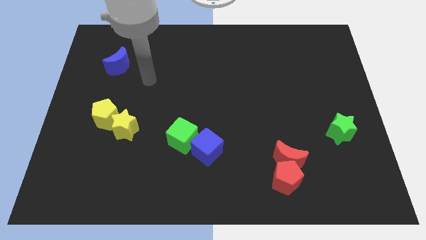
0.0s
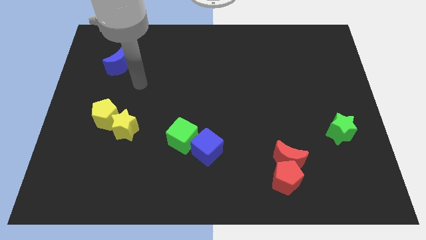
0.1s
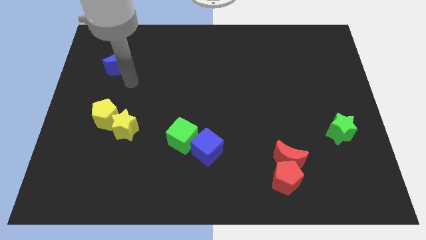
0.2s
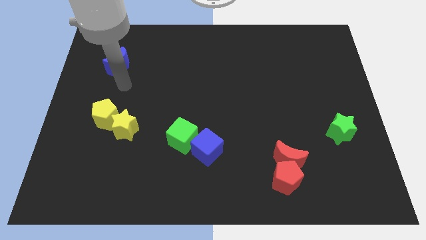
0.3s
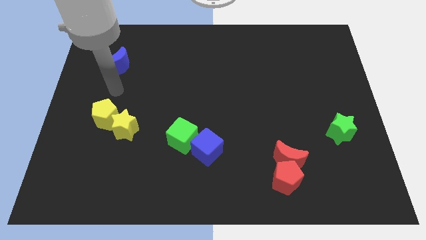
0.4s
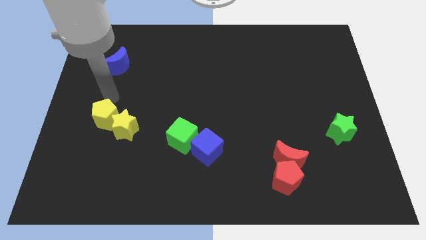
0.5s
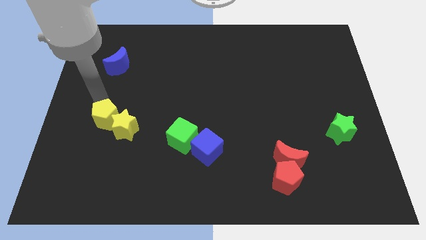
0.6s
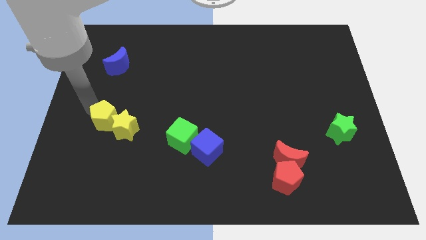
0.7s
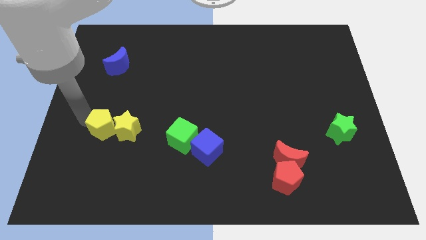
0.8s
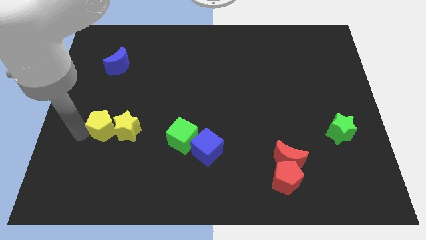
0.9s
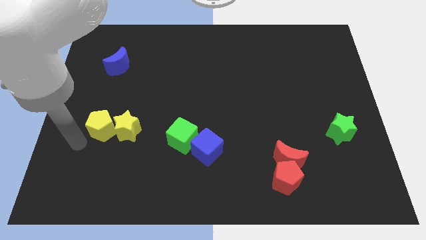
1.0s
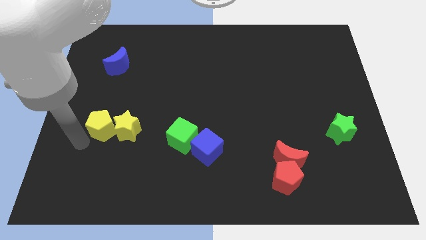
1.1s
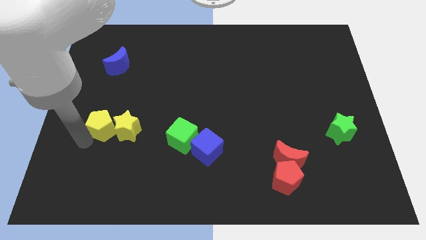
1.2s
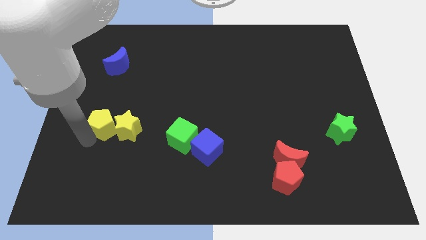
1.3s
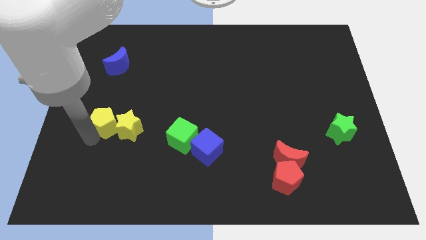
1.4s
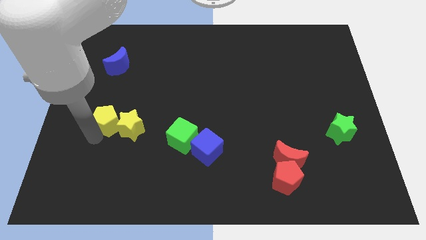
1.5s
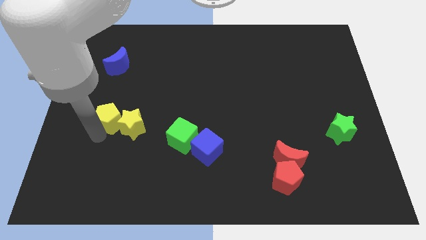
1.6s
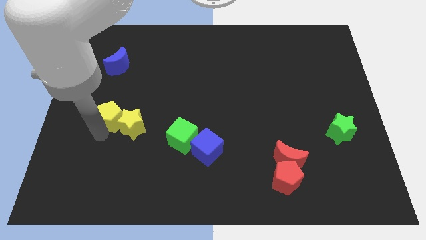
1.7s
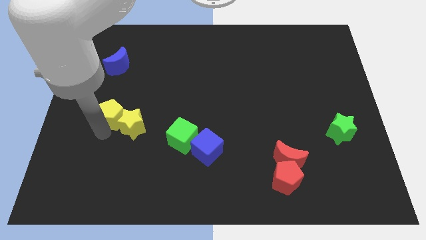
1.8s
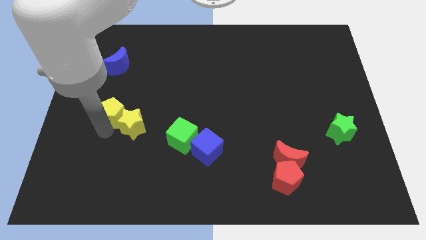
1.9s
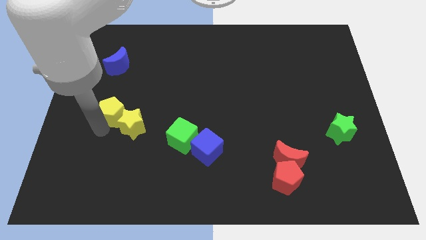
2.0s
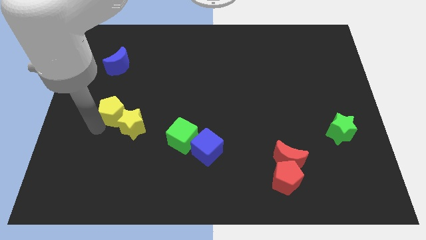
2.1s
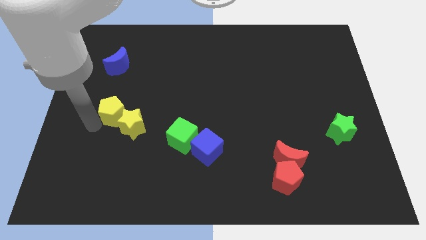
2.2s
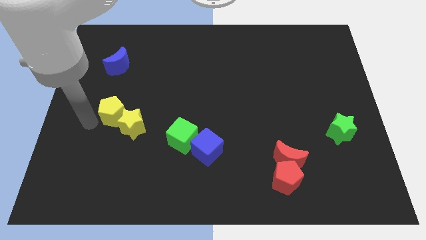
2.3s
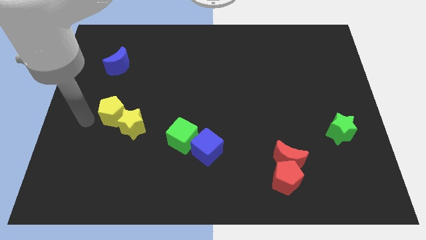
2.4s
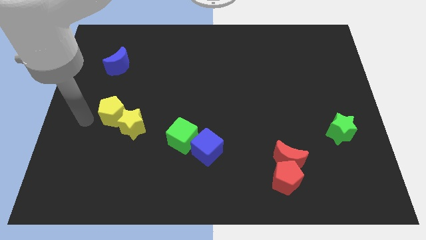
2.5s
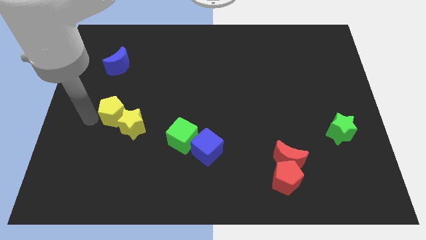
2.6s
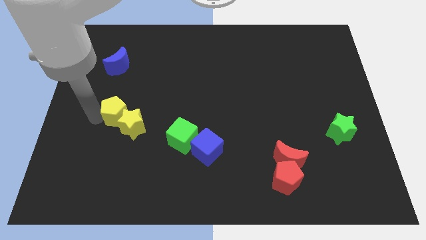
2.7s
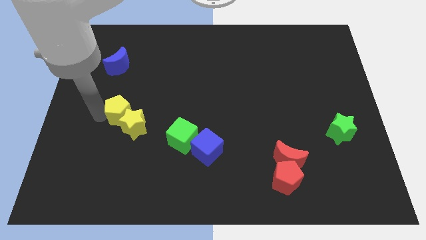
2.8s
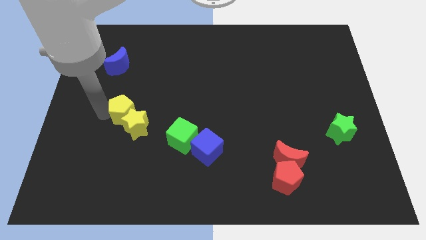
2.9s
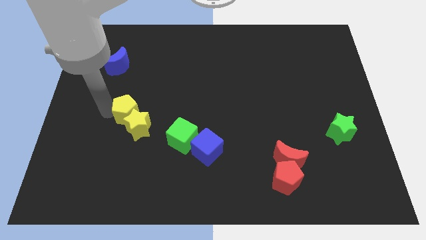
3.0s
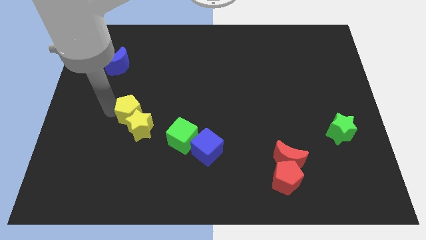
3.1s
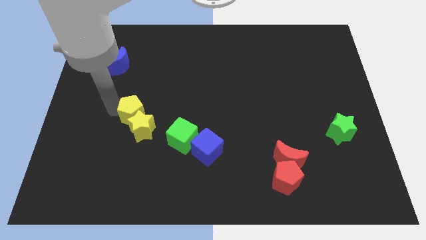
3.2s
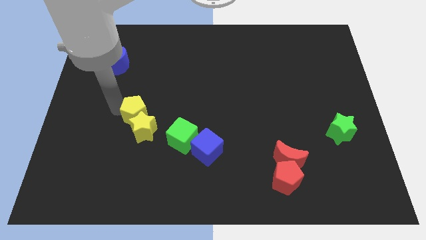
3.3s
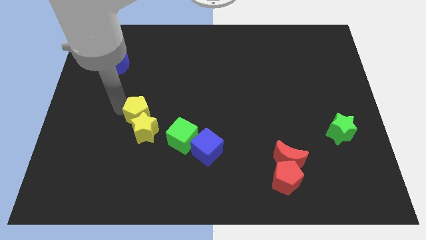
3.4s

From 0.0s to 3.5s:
move the yellow pentagon right somewhat

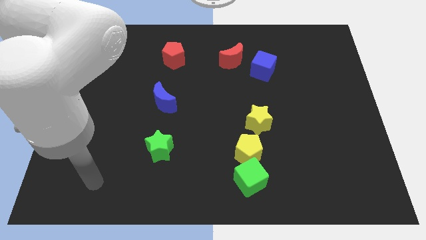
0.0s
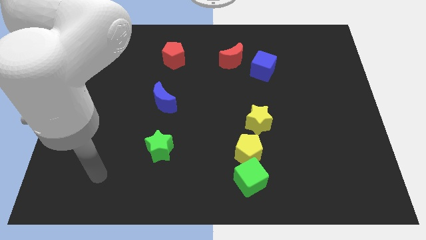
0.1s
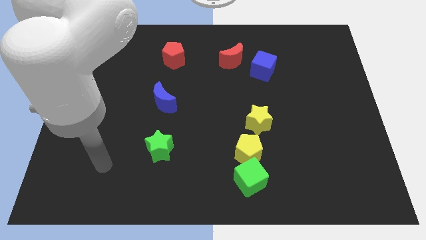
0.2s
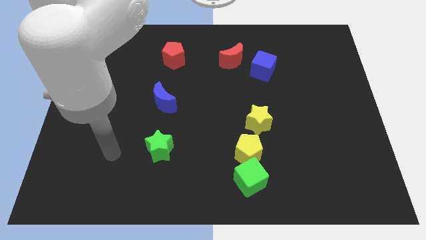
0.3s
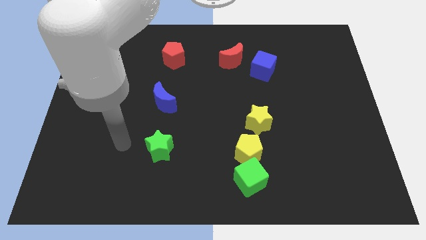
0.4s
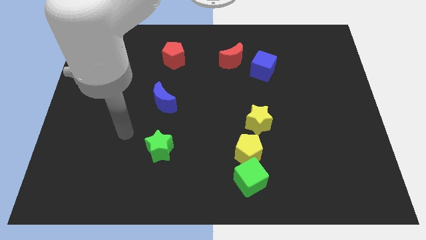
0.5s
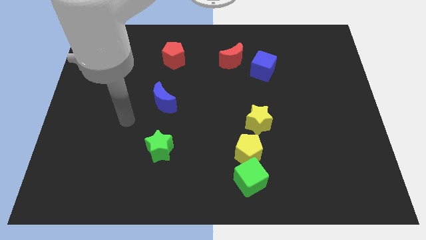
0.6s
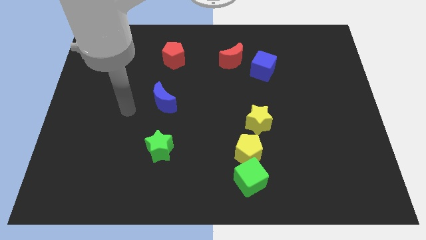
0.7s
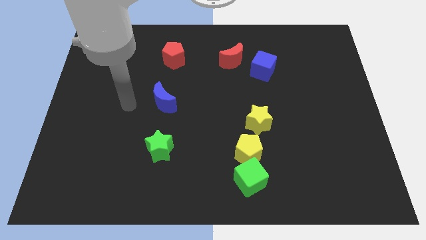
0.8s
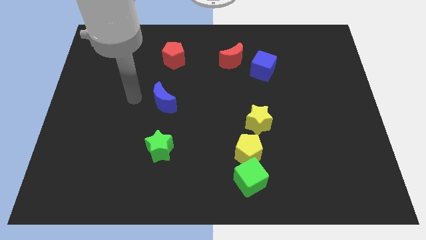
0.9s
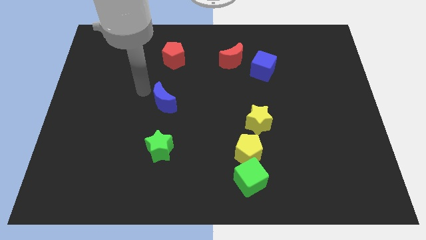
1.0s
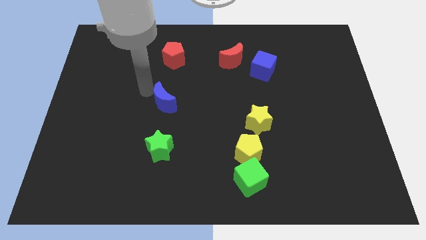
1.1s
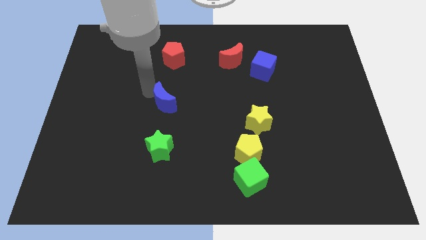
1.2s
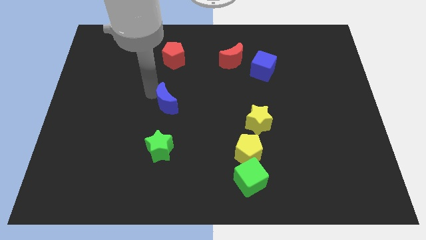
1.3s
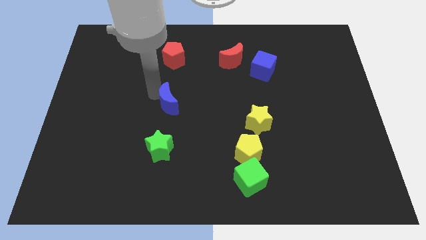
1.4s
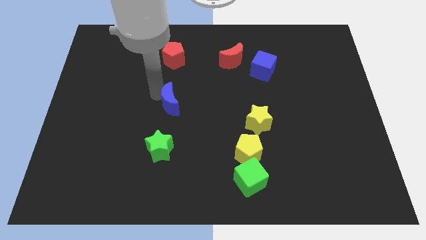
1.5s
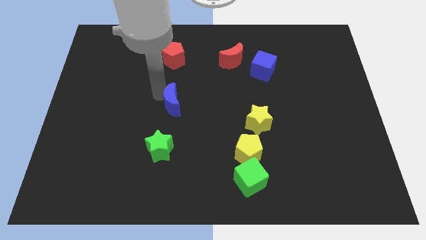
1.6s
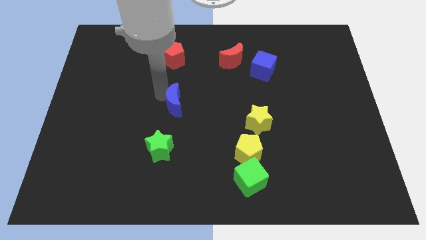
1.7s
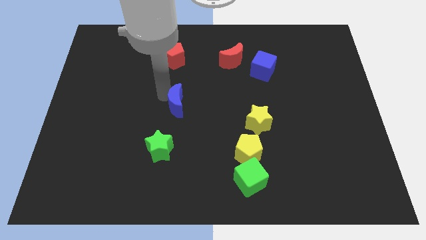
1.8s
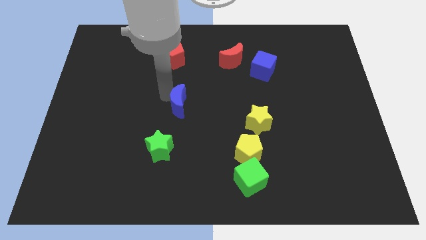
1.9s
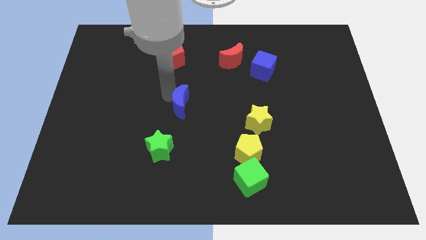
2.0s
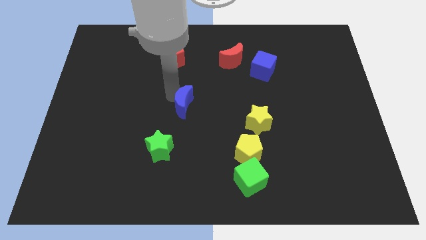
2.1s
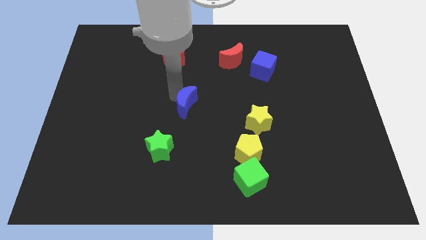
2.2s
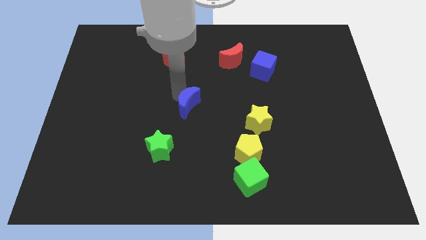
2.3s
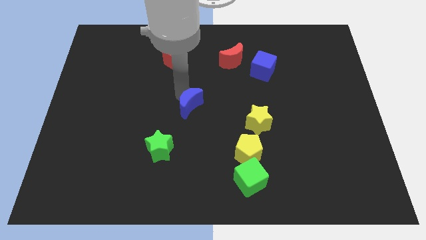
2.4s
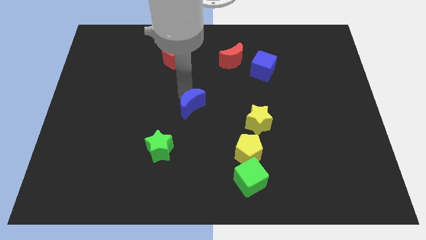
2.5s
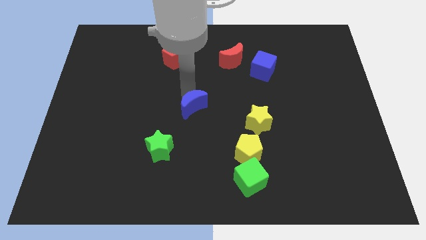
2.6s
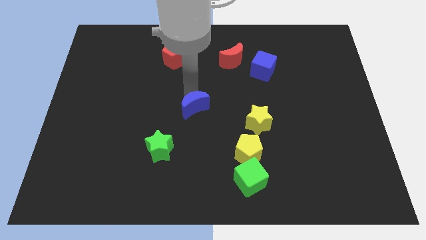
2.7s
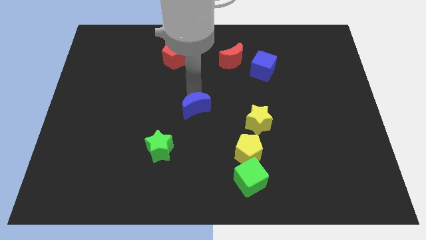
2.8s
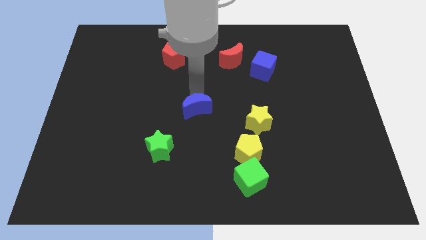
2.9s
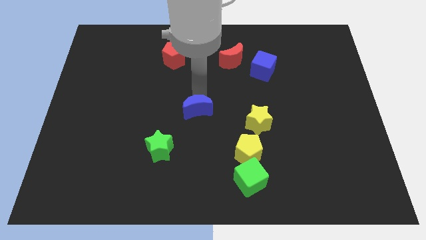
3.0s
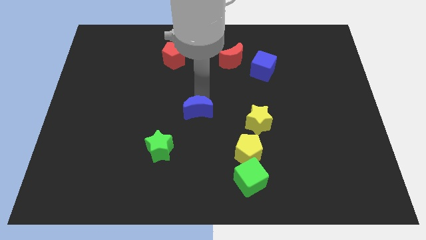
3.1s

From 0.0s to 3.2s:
slightly move the blue moon downwards and to the right diagonally

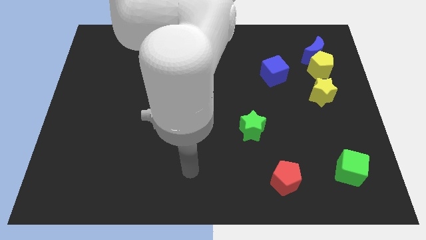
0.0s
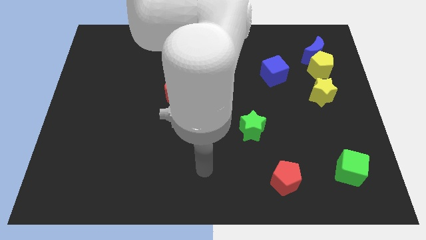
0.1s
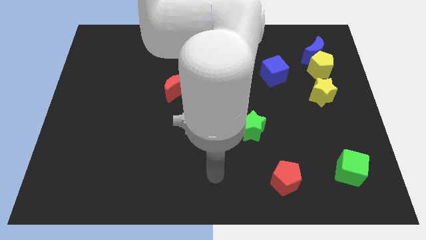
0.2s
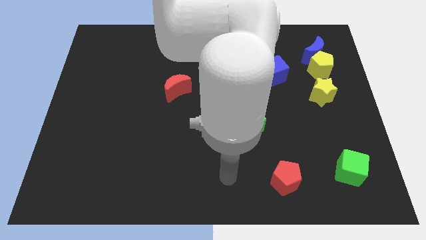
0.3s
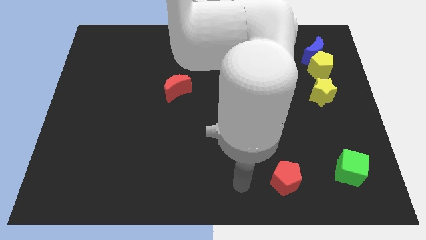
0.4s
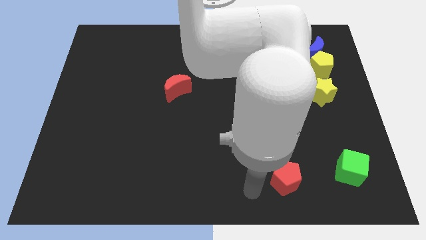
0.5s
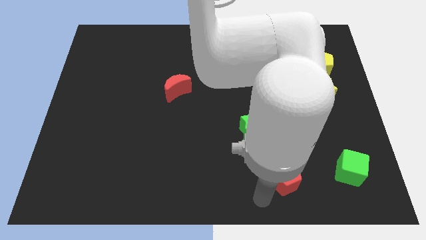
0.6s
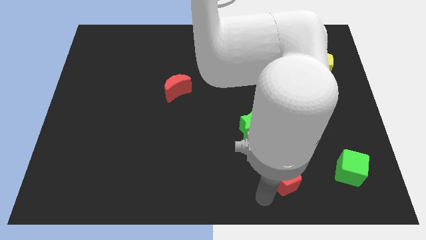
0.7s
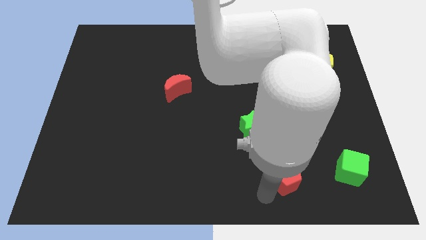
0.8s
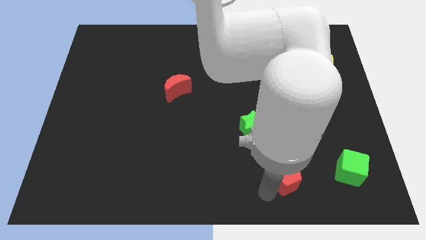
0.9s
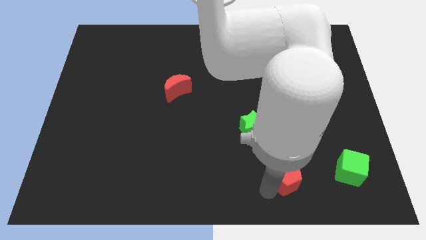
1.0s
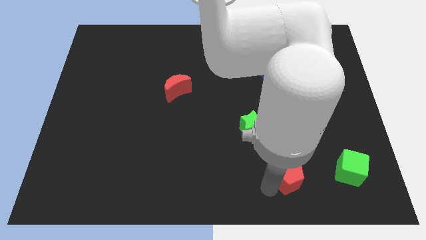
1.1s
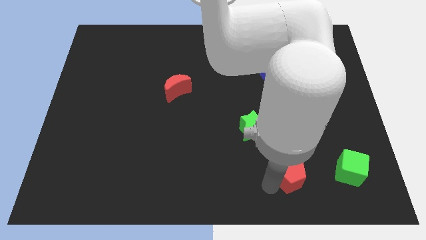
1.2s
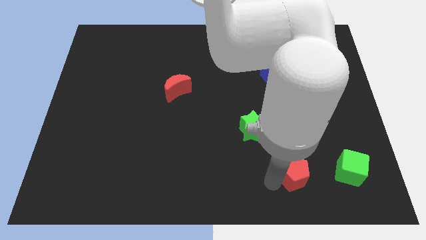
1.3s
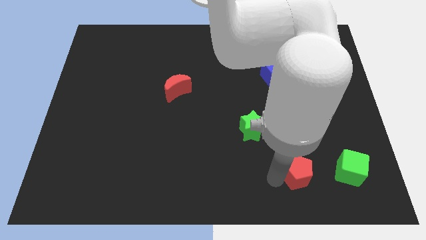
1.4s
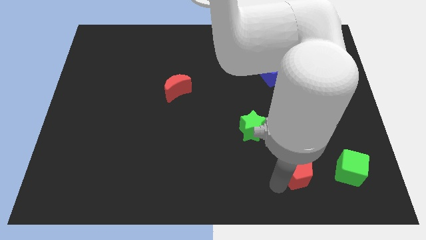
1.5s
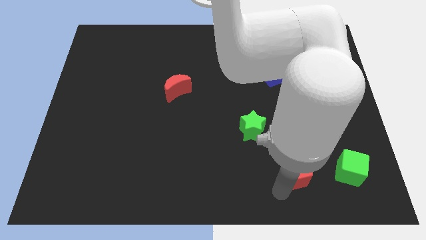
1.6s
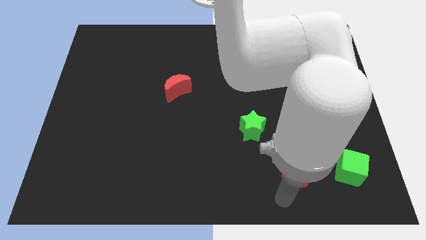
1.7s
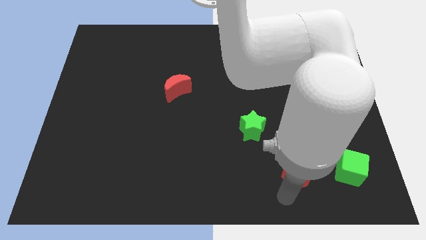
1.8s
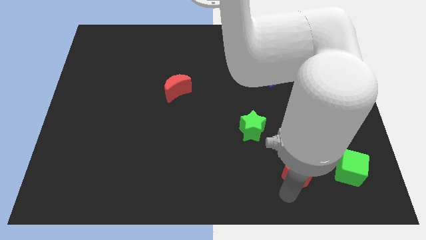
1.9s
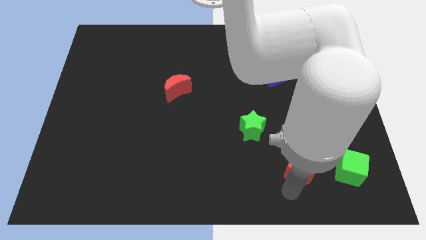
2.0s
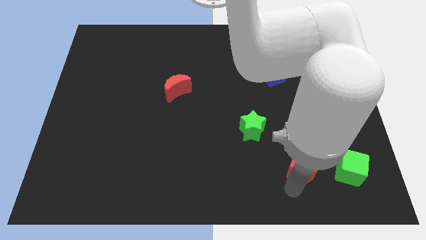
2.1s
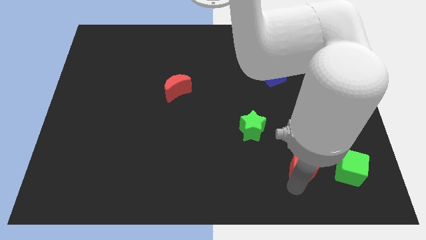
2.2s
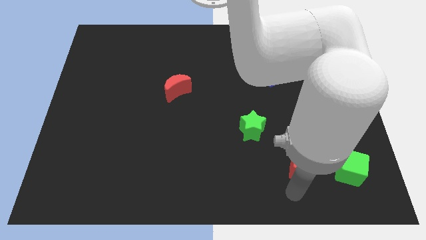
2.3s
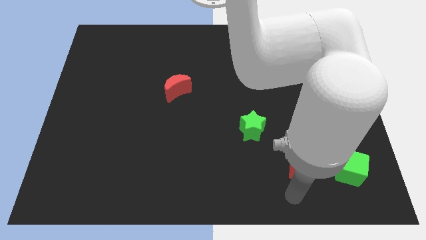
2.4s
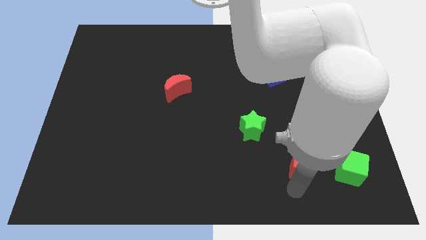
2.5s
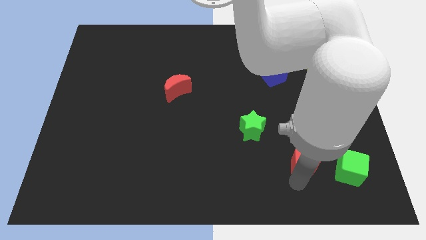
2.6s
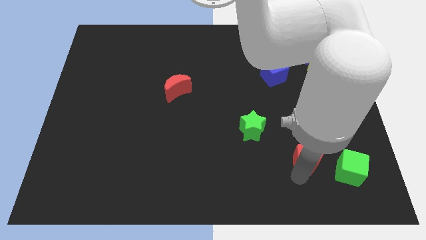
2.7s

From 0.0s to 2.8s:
slightly slide the red pentagon upwards and right diagonally
